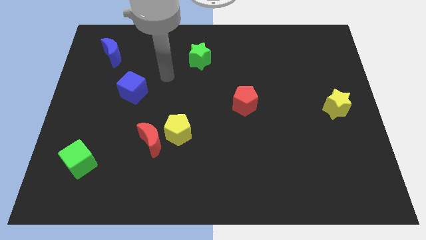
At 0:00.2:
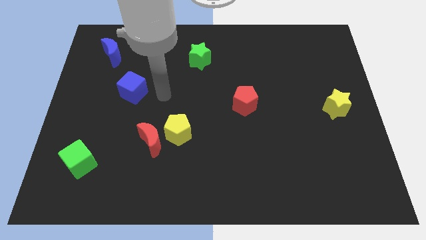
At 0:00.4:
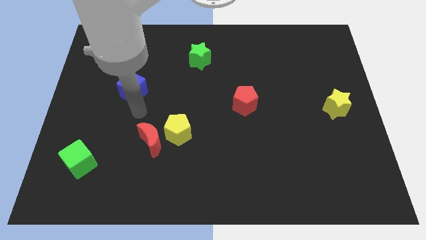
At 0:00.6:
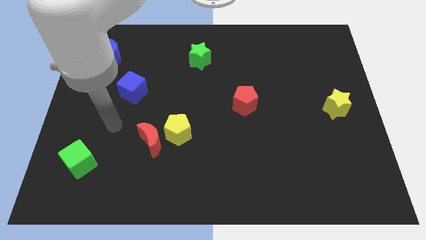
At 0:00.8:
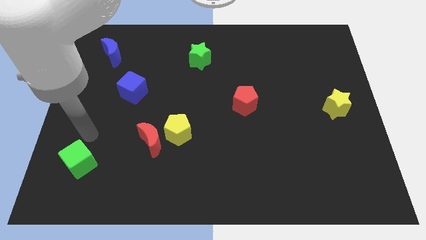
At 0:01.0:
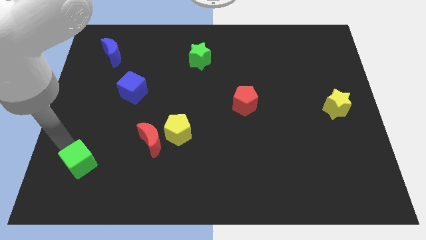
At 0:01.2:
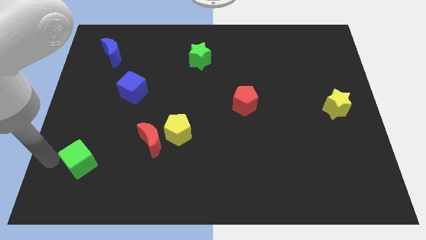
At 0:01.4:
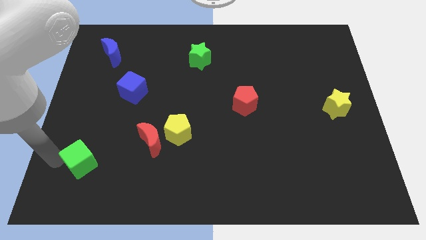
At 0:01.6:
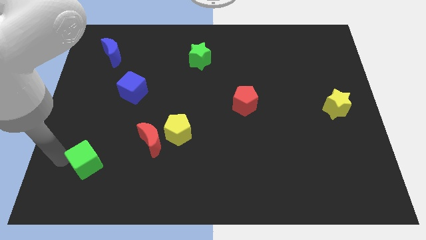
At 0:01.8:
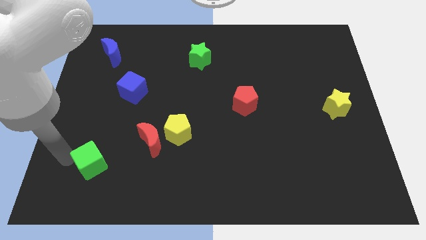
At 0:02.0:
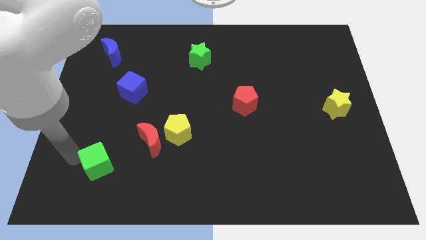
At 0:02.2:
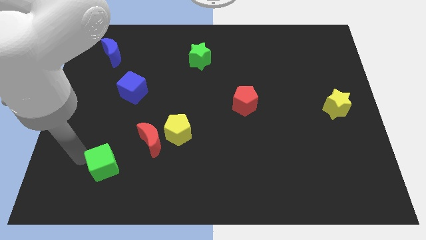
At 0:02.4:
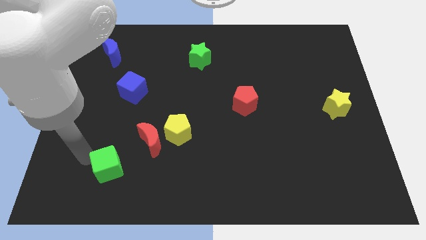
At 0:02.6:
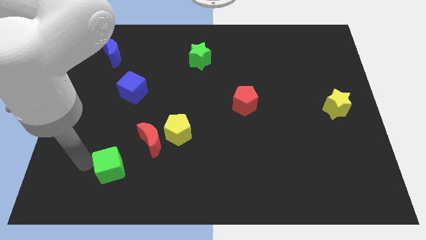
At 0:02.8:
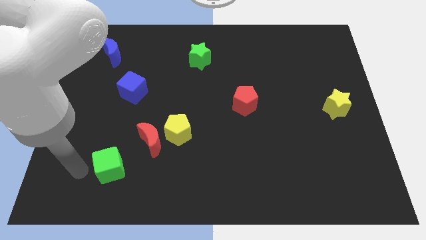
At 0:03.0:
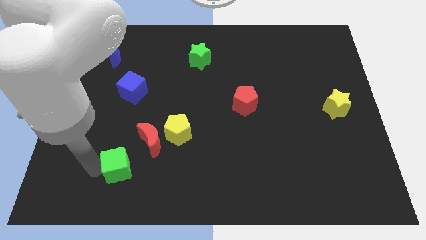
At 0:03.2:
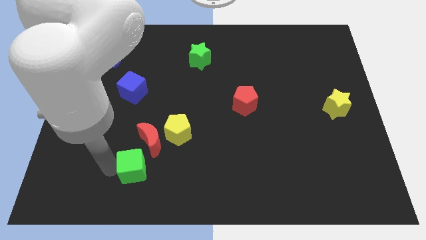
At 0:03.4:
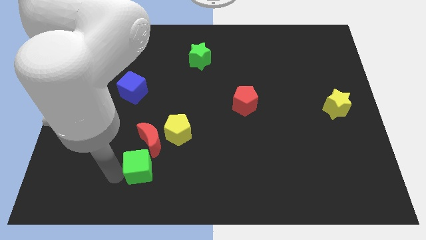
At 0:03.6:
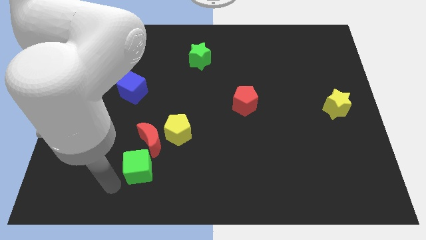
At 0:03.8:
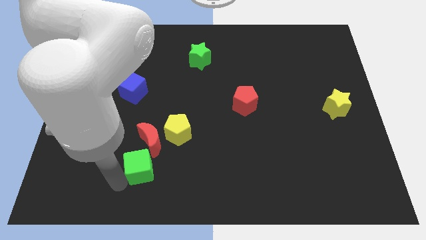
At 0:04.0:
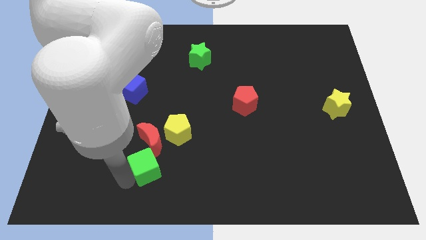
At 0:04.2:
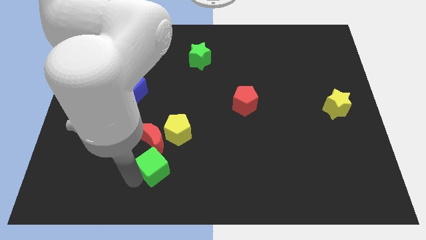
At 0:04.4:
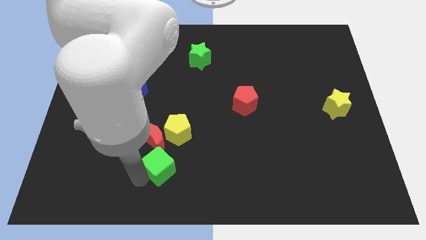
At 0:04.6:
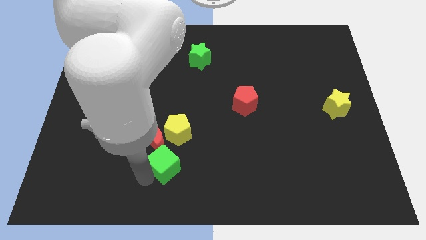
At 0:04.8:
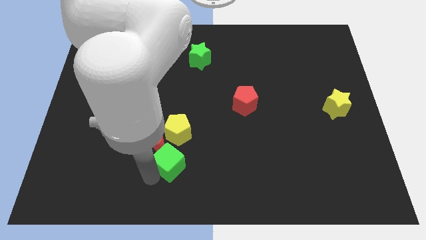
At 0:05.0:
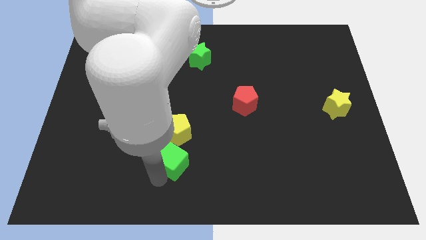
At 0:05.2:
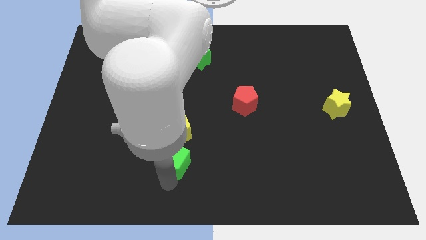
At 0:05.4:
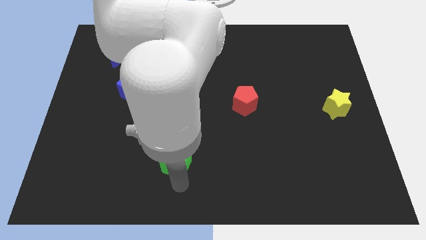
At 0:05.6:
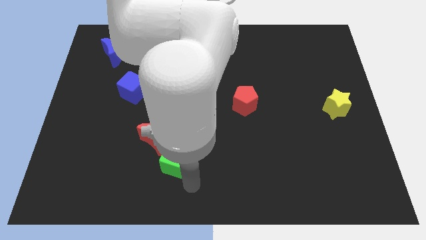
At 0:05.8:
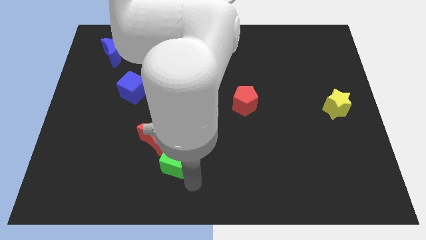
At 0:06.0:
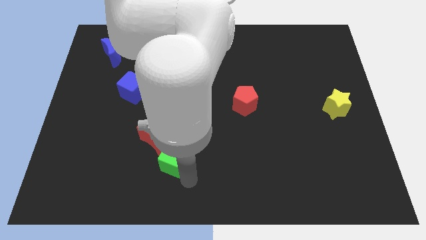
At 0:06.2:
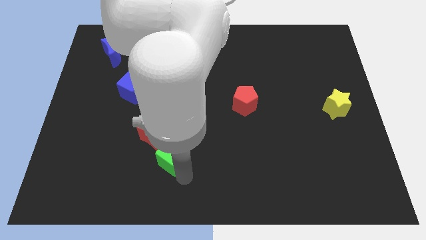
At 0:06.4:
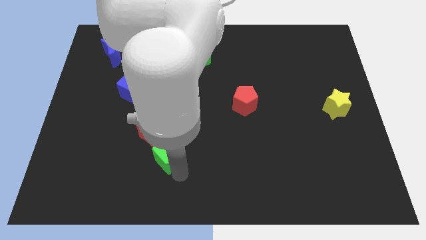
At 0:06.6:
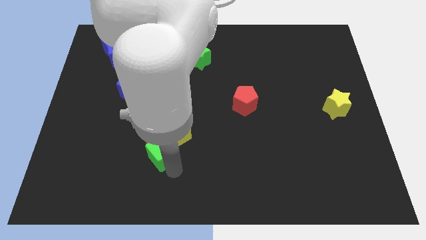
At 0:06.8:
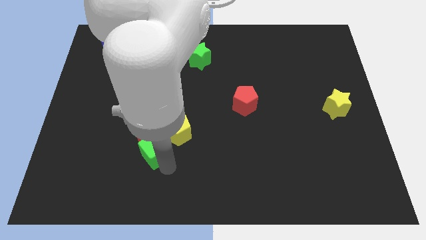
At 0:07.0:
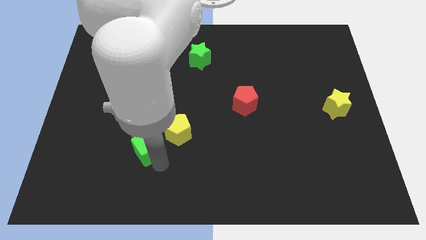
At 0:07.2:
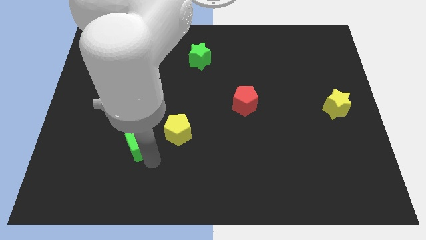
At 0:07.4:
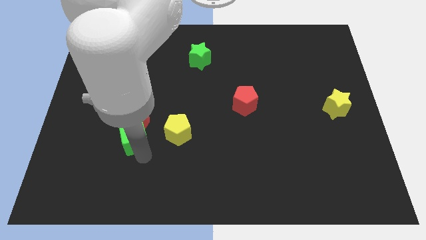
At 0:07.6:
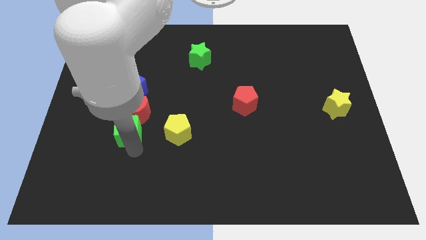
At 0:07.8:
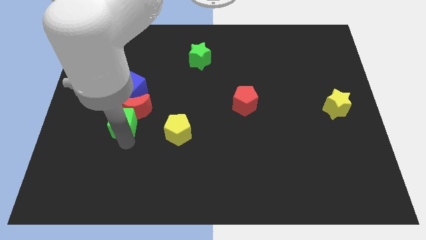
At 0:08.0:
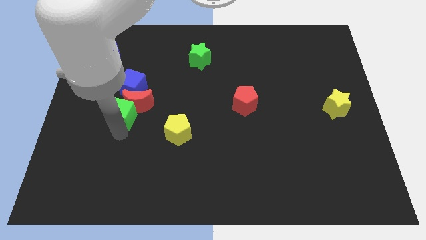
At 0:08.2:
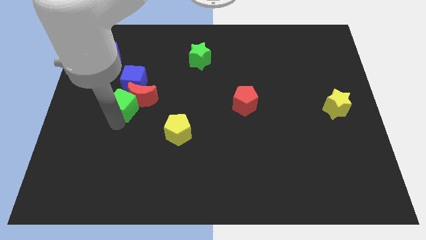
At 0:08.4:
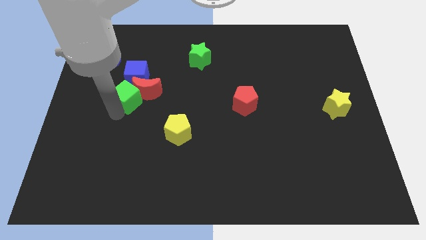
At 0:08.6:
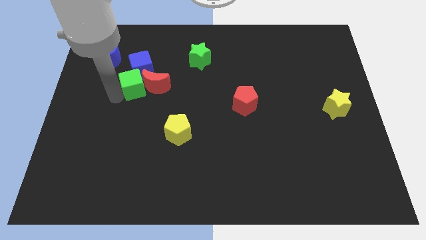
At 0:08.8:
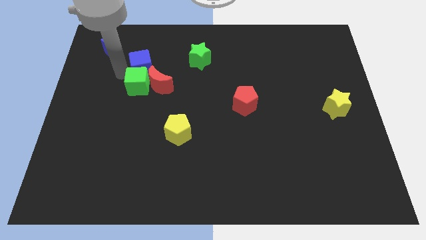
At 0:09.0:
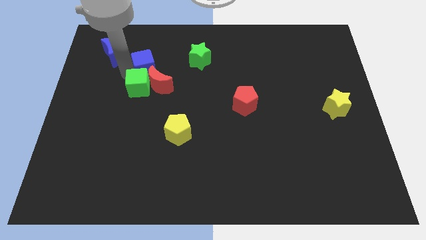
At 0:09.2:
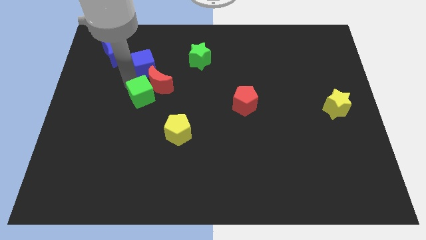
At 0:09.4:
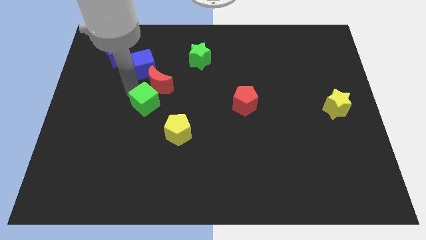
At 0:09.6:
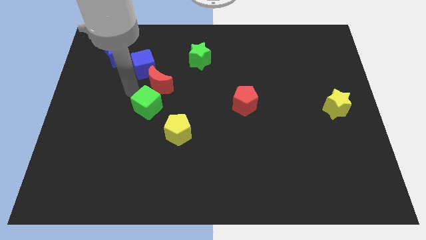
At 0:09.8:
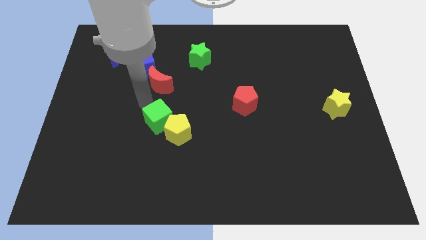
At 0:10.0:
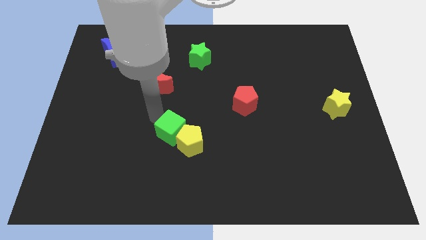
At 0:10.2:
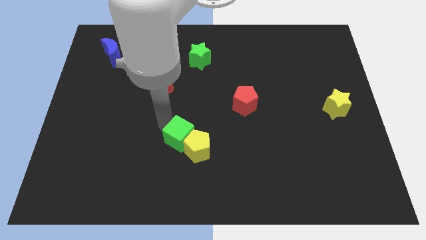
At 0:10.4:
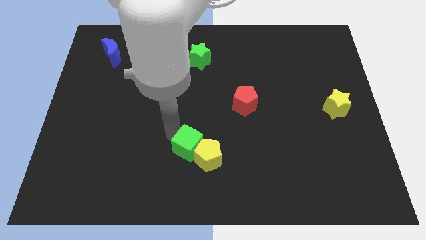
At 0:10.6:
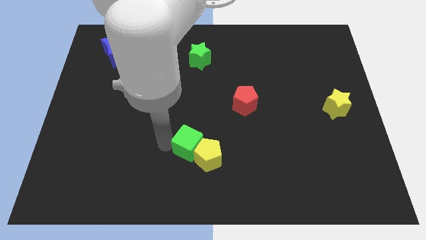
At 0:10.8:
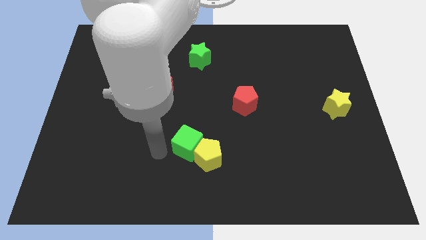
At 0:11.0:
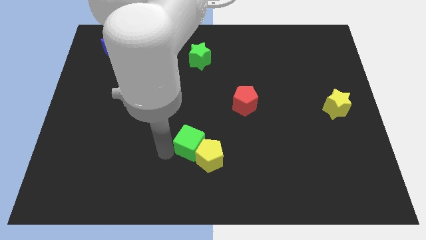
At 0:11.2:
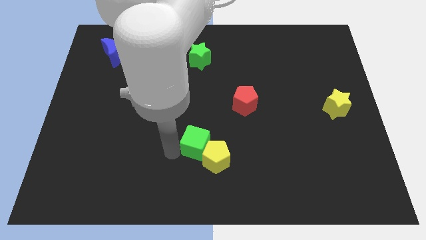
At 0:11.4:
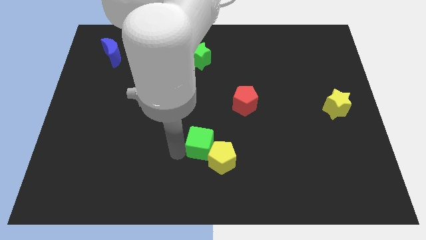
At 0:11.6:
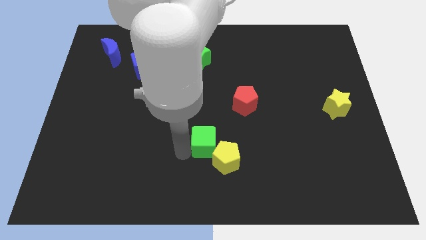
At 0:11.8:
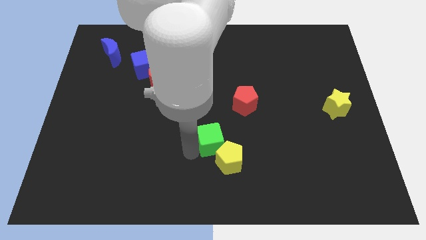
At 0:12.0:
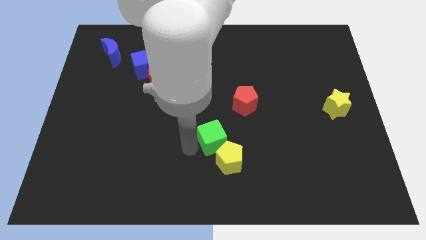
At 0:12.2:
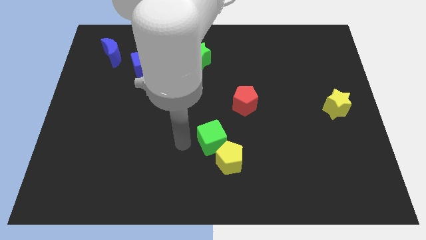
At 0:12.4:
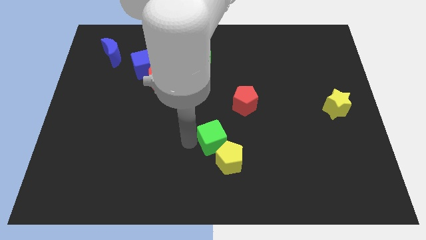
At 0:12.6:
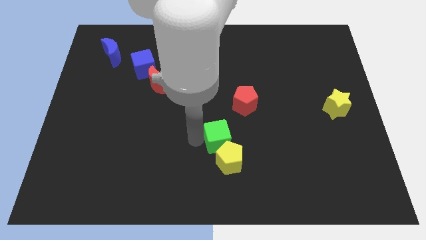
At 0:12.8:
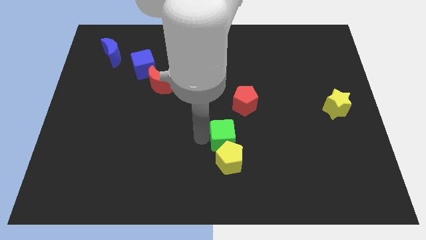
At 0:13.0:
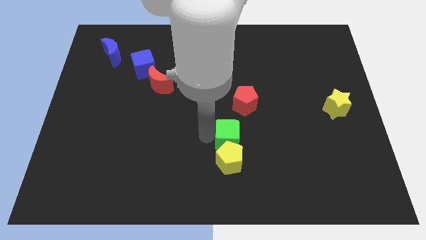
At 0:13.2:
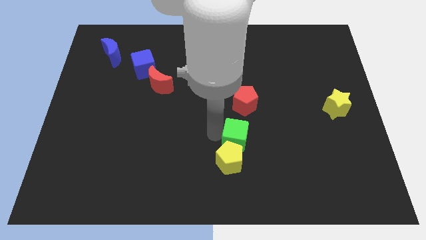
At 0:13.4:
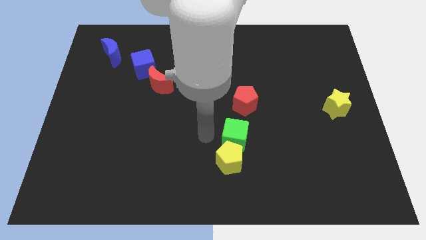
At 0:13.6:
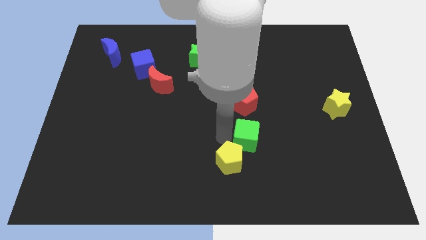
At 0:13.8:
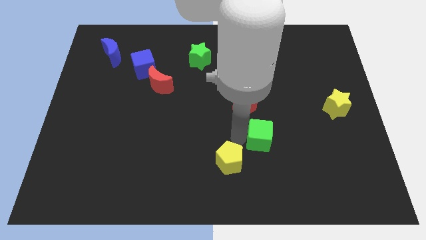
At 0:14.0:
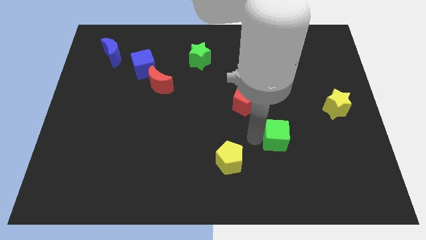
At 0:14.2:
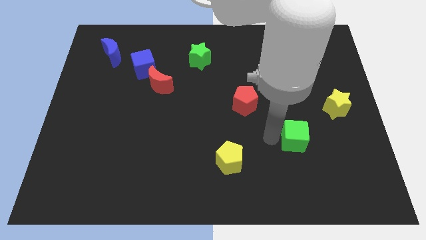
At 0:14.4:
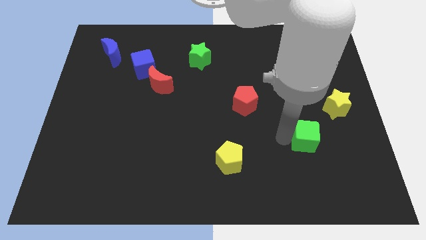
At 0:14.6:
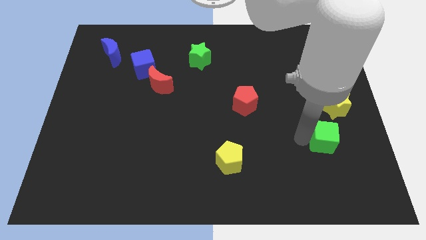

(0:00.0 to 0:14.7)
put the green cube to the bottom side of the yellow star

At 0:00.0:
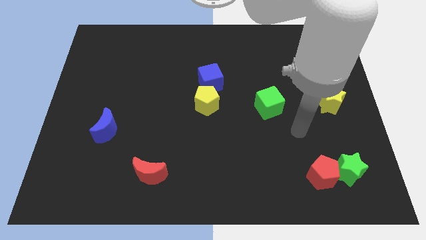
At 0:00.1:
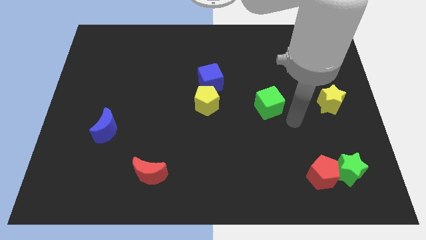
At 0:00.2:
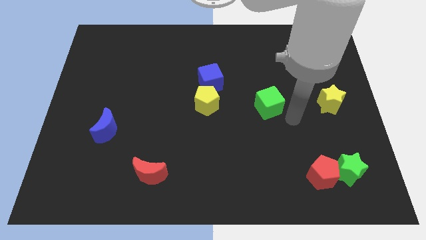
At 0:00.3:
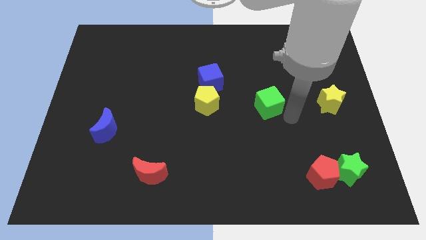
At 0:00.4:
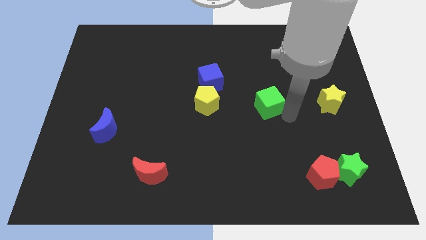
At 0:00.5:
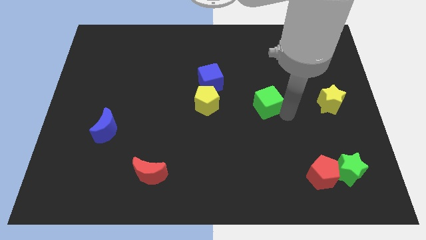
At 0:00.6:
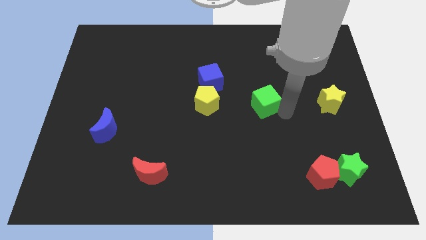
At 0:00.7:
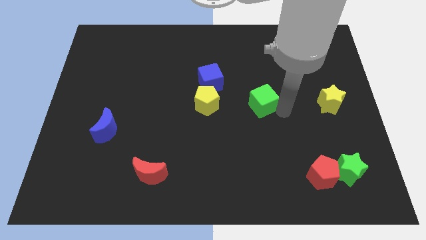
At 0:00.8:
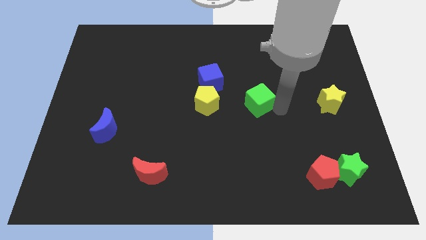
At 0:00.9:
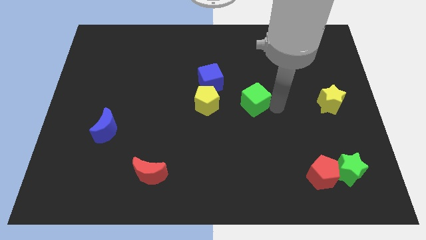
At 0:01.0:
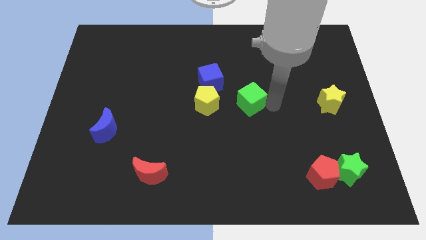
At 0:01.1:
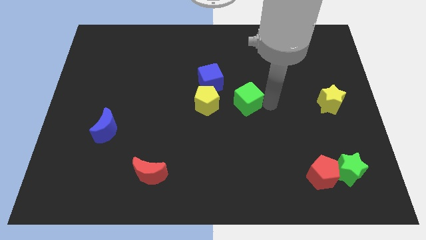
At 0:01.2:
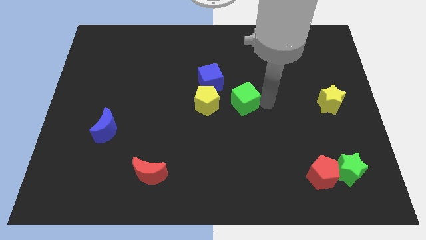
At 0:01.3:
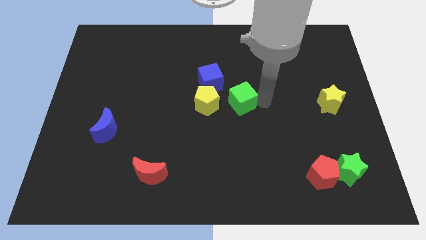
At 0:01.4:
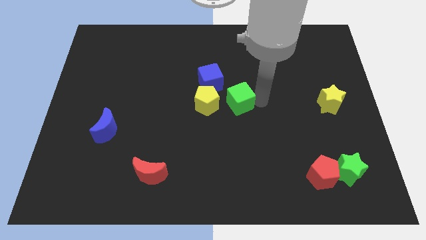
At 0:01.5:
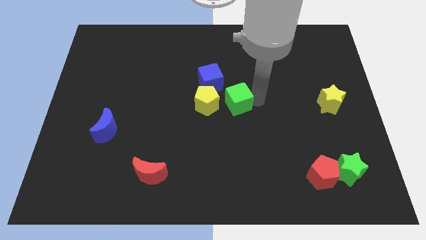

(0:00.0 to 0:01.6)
push the green cube to the top right side of the yellow pentagon
